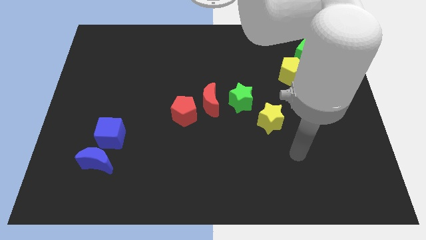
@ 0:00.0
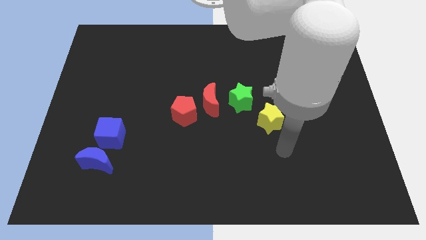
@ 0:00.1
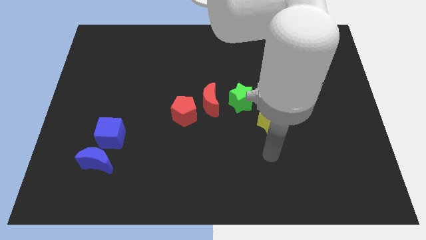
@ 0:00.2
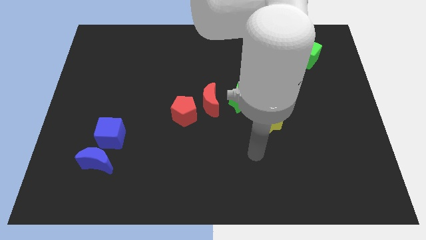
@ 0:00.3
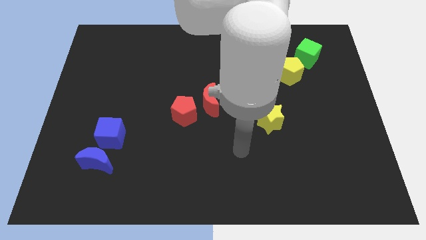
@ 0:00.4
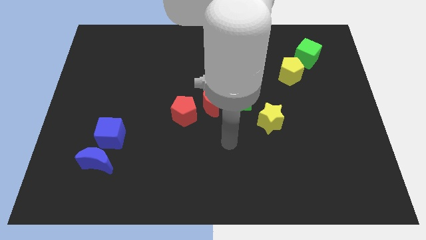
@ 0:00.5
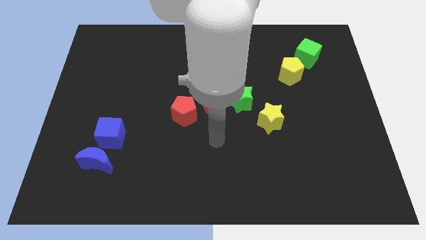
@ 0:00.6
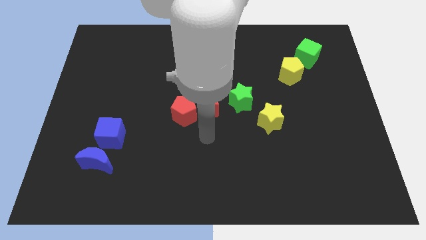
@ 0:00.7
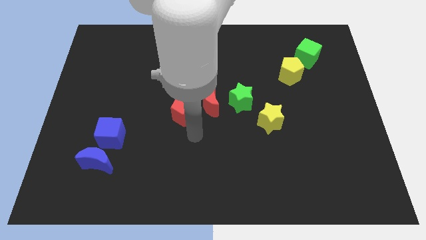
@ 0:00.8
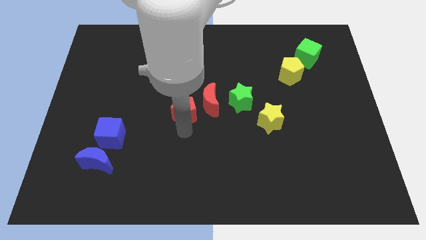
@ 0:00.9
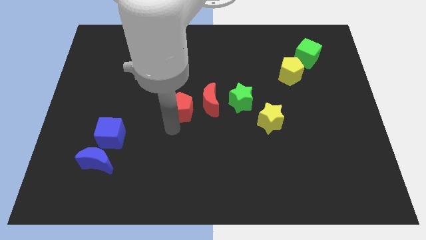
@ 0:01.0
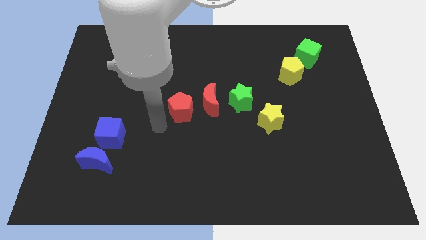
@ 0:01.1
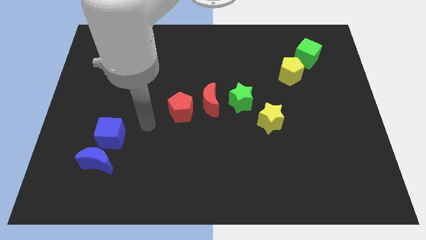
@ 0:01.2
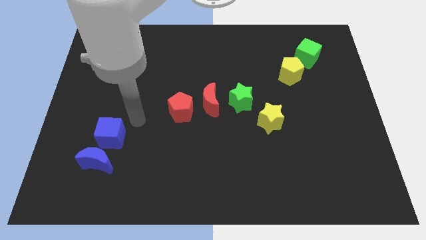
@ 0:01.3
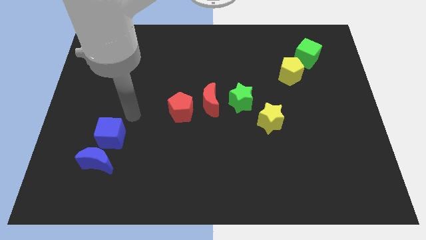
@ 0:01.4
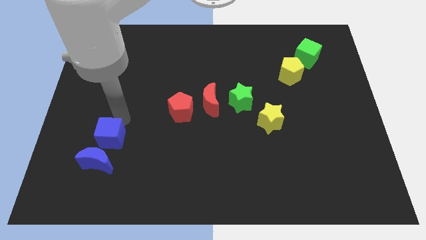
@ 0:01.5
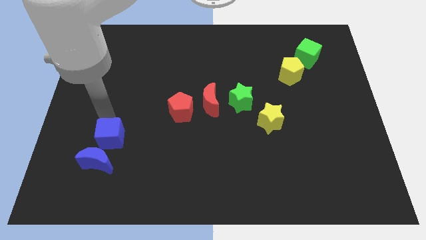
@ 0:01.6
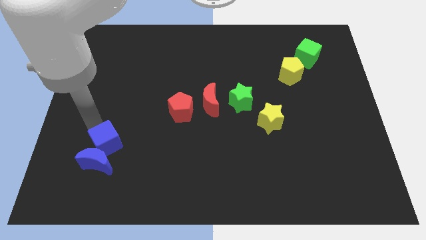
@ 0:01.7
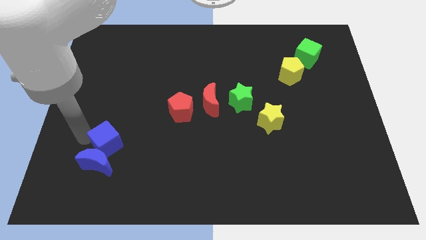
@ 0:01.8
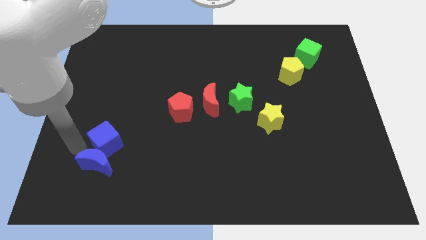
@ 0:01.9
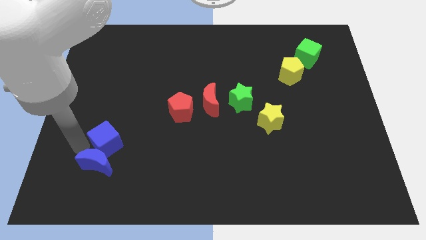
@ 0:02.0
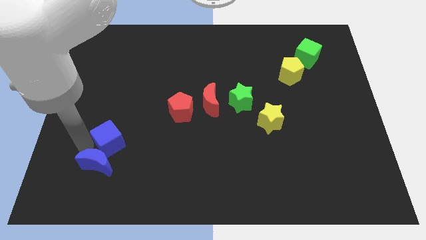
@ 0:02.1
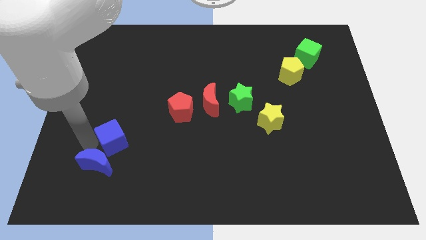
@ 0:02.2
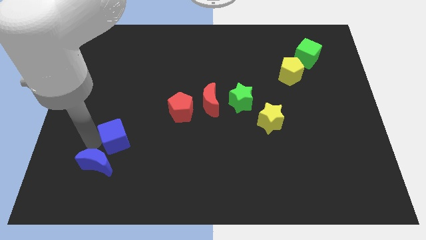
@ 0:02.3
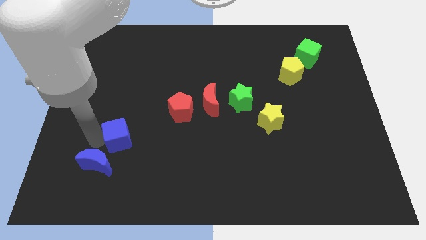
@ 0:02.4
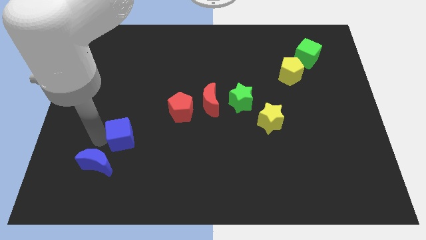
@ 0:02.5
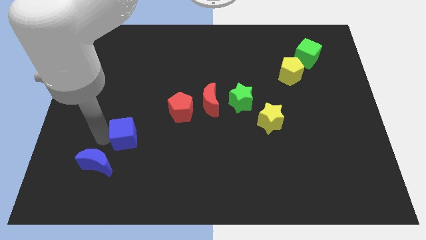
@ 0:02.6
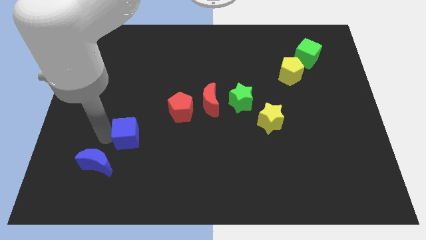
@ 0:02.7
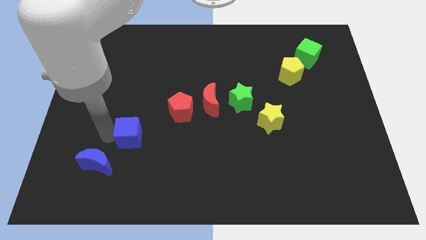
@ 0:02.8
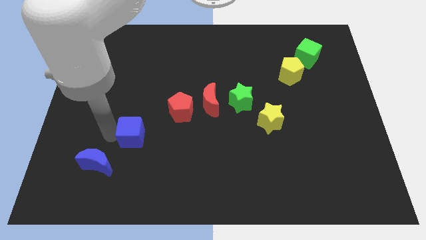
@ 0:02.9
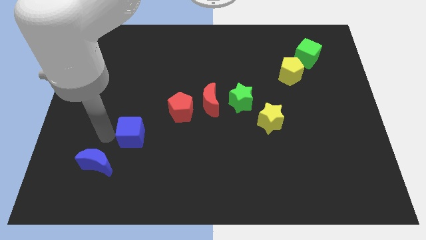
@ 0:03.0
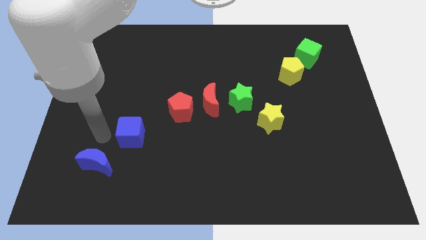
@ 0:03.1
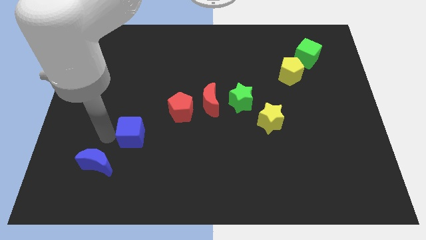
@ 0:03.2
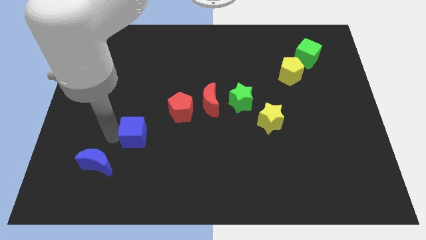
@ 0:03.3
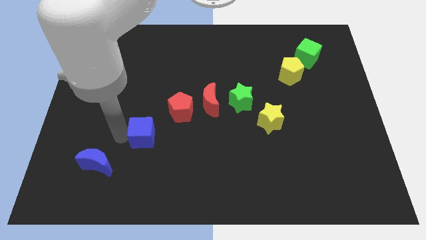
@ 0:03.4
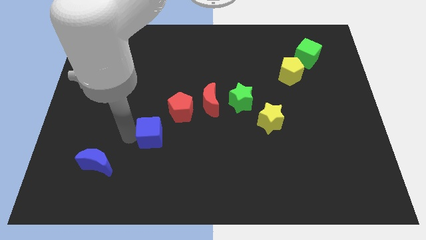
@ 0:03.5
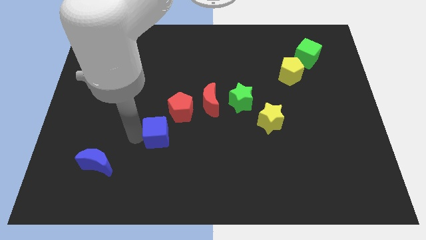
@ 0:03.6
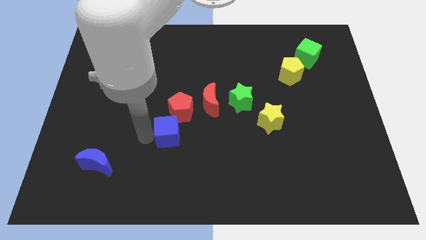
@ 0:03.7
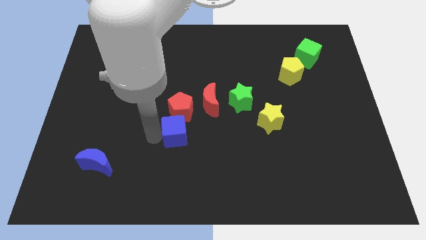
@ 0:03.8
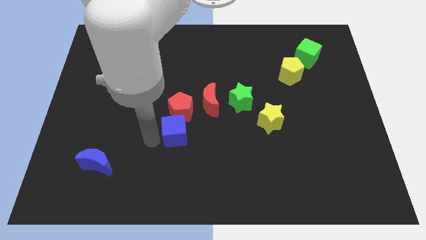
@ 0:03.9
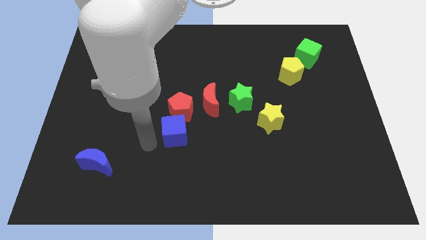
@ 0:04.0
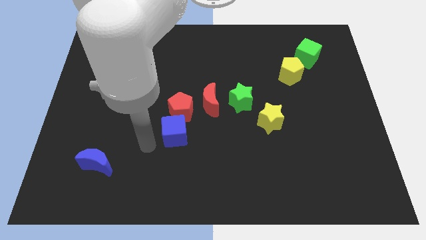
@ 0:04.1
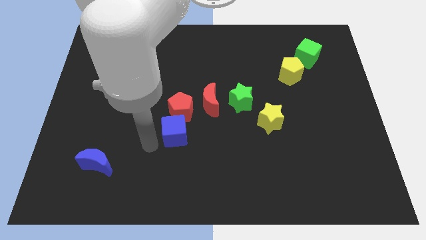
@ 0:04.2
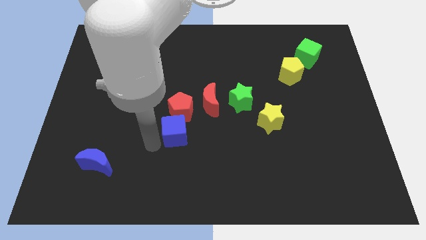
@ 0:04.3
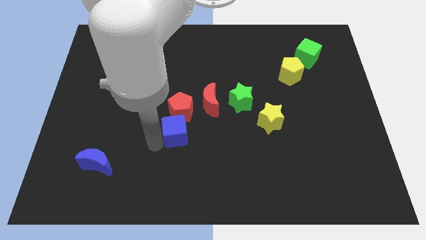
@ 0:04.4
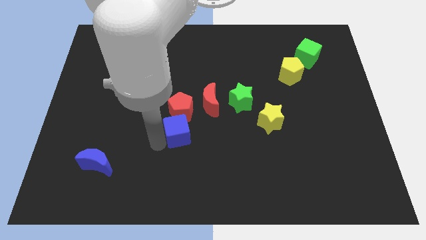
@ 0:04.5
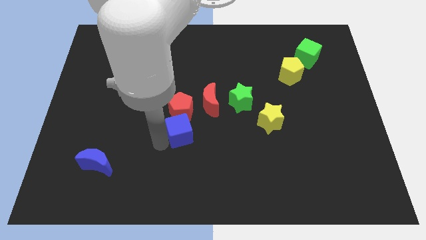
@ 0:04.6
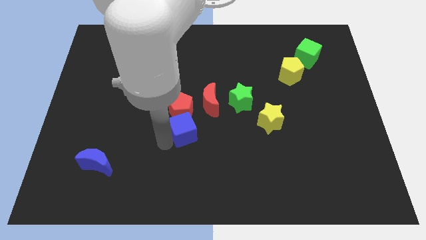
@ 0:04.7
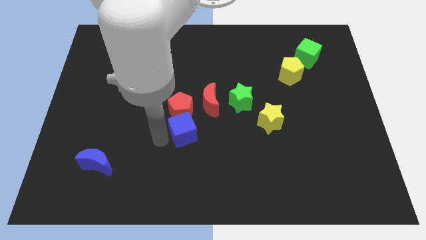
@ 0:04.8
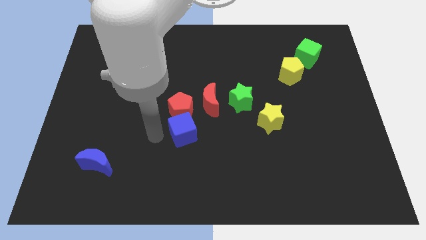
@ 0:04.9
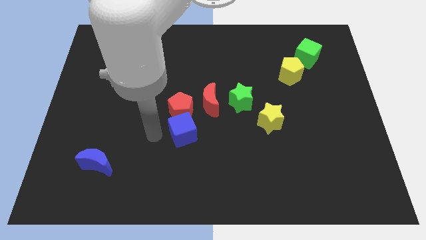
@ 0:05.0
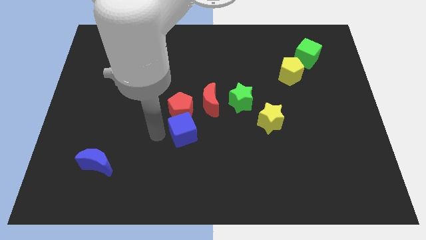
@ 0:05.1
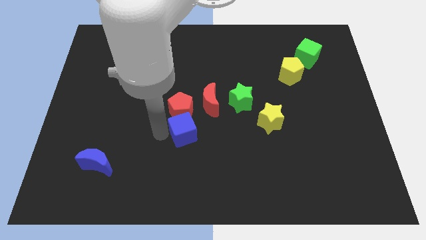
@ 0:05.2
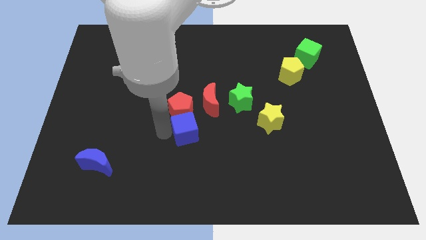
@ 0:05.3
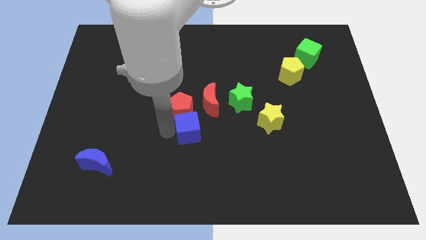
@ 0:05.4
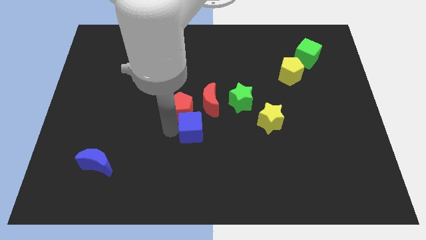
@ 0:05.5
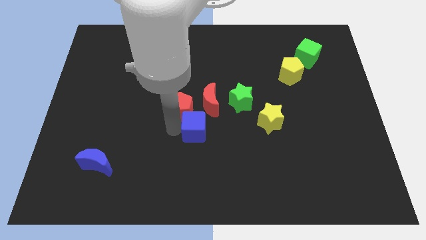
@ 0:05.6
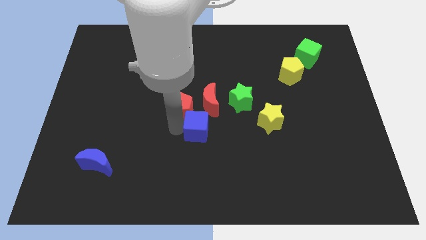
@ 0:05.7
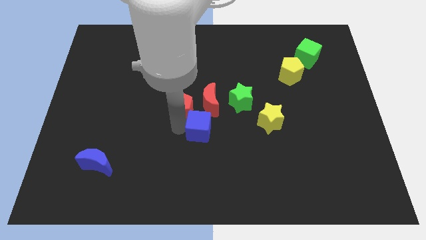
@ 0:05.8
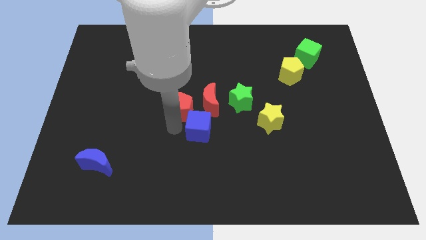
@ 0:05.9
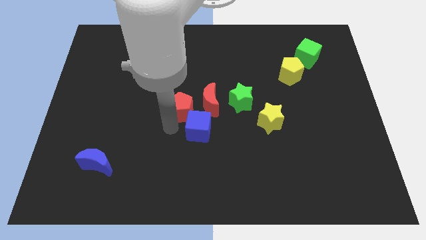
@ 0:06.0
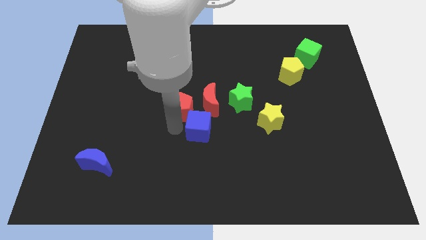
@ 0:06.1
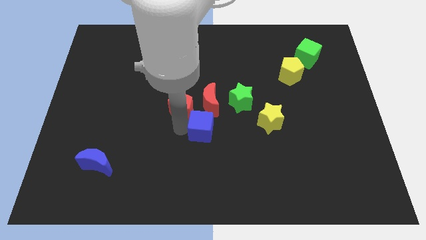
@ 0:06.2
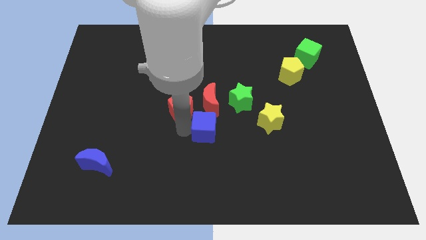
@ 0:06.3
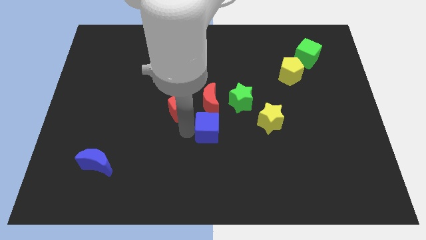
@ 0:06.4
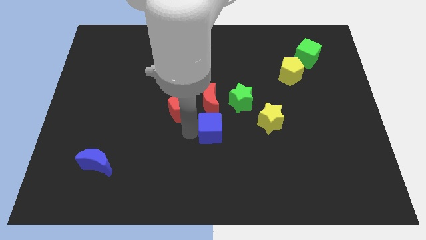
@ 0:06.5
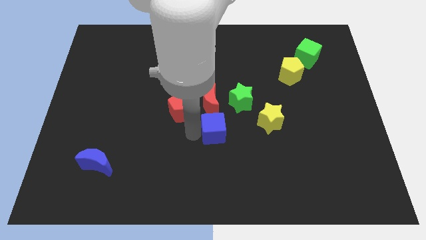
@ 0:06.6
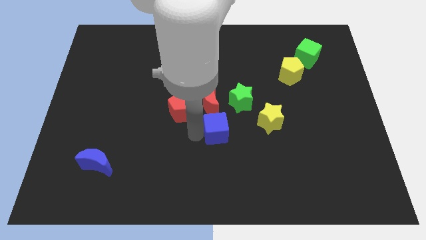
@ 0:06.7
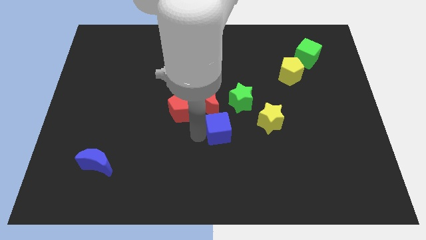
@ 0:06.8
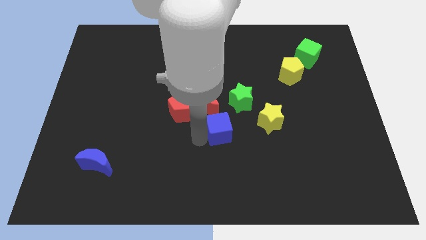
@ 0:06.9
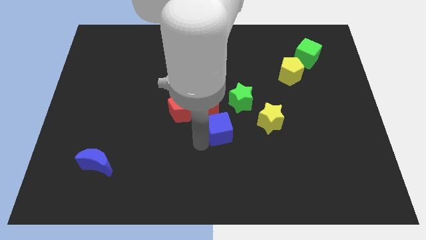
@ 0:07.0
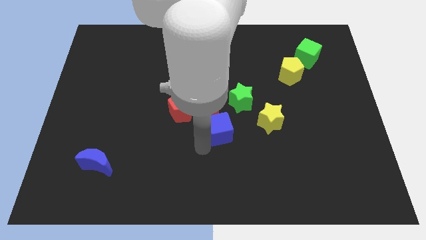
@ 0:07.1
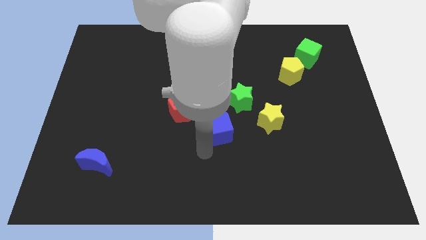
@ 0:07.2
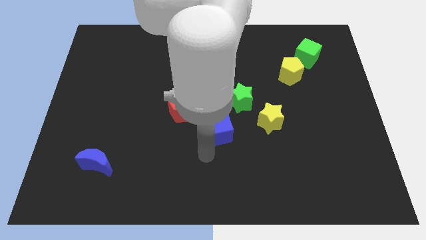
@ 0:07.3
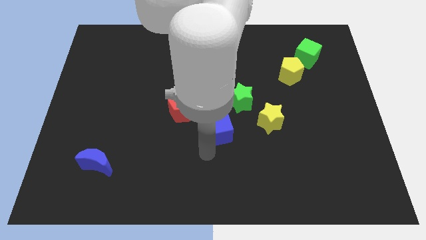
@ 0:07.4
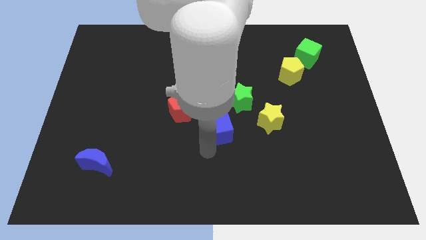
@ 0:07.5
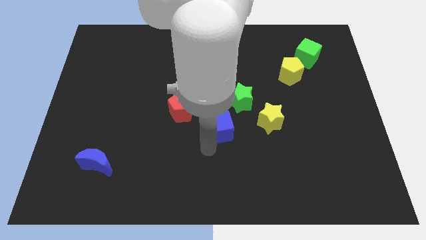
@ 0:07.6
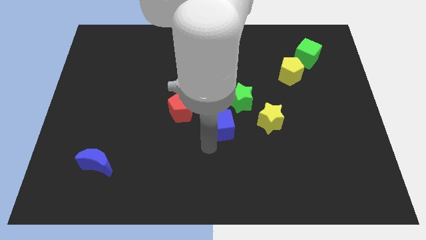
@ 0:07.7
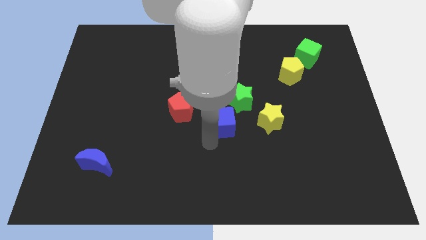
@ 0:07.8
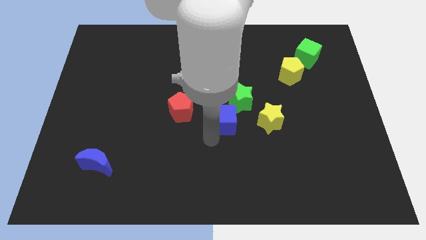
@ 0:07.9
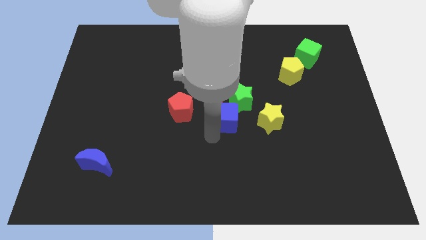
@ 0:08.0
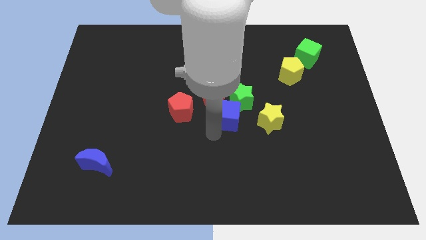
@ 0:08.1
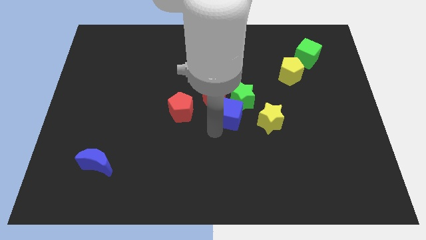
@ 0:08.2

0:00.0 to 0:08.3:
move the blue cube close to the green star

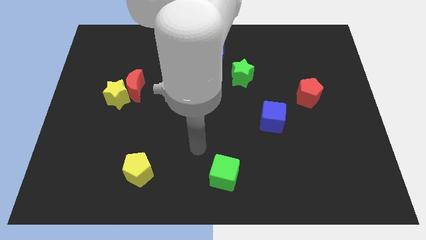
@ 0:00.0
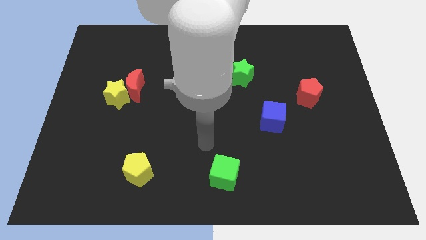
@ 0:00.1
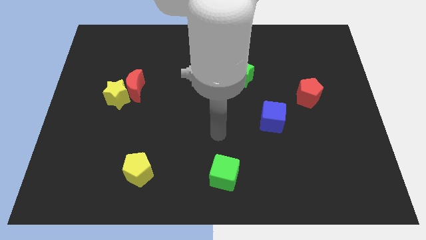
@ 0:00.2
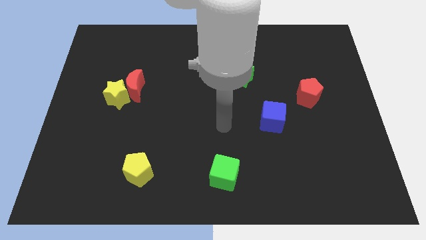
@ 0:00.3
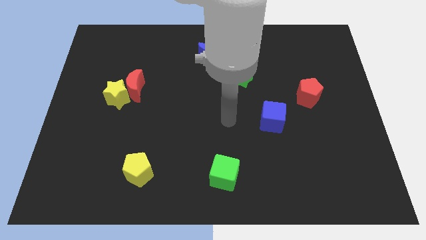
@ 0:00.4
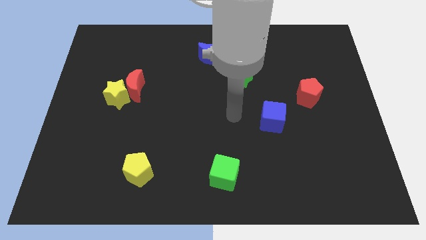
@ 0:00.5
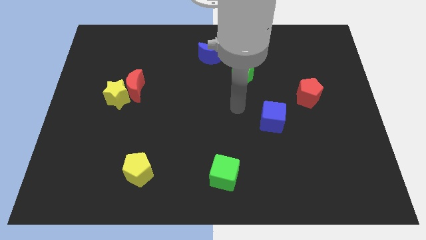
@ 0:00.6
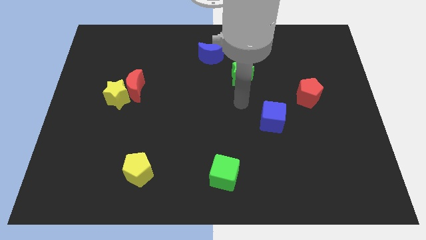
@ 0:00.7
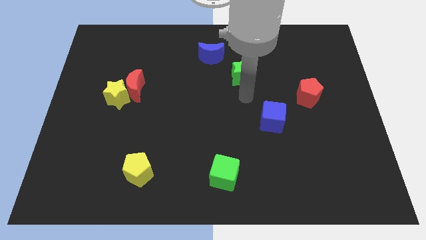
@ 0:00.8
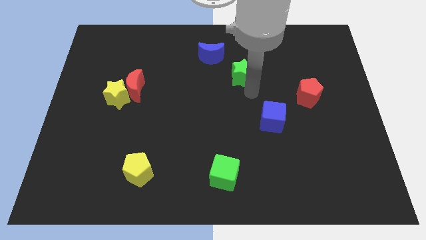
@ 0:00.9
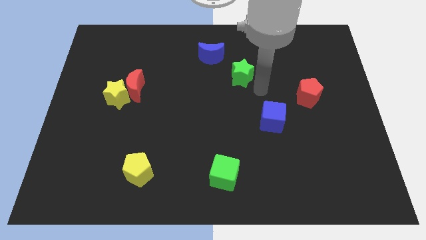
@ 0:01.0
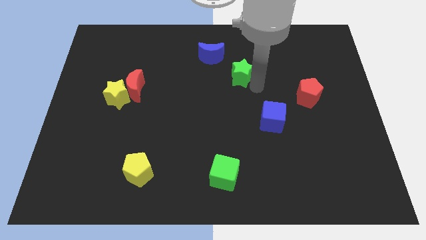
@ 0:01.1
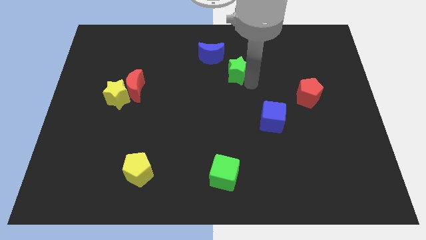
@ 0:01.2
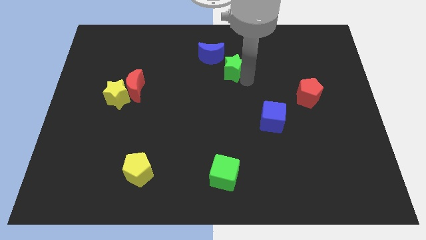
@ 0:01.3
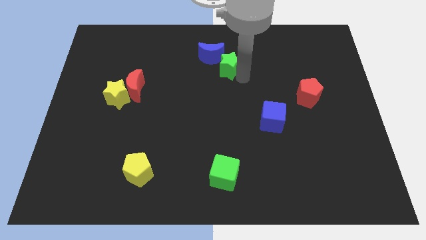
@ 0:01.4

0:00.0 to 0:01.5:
put the green star next to the blue moon
